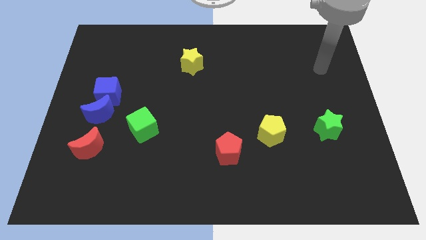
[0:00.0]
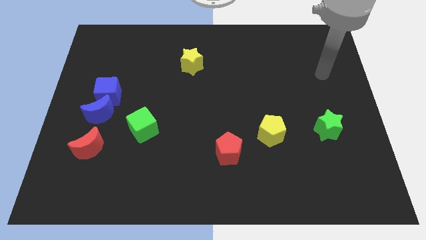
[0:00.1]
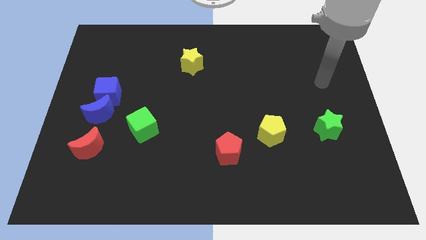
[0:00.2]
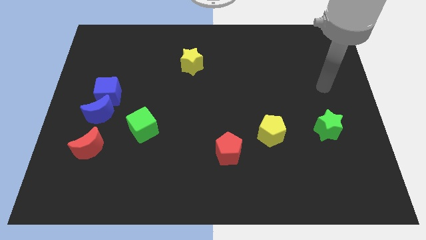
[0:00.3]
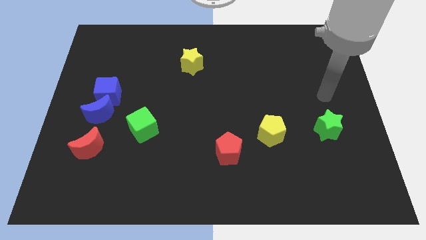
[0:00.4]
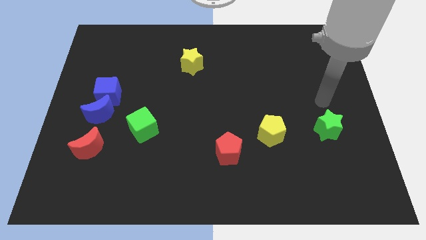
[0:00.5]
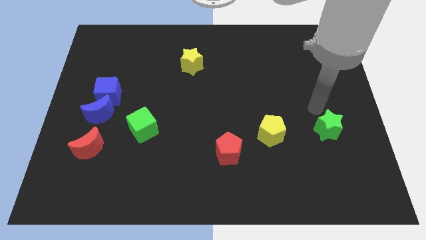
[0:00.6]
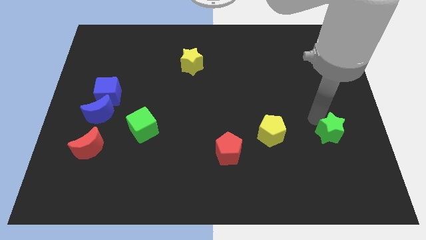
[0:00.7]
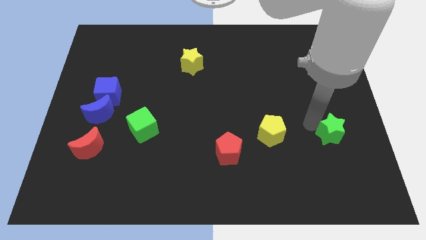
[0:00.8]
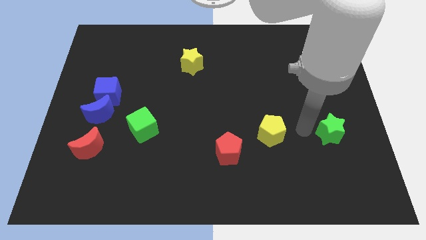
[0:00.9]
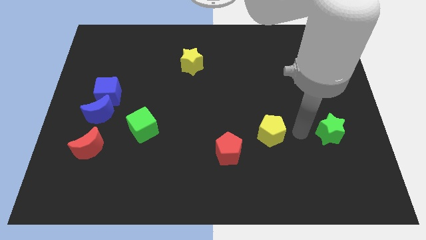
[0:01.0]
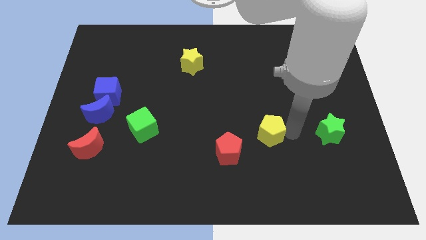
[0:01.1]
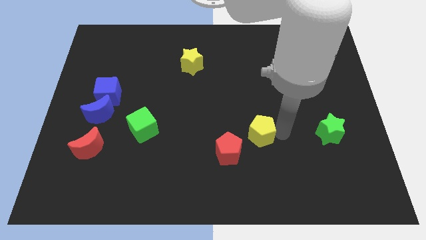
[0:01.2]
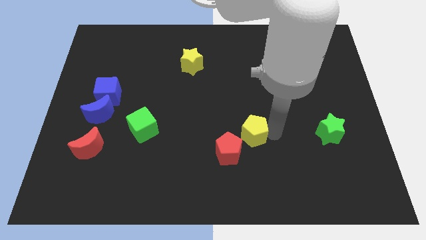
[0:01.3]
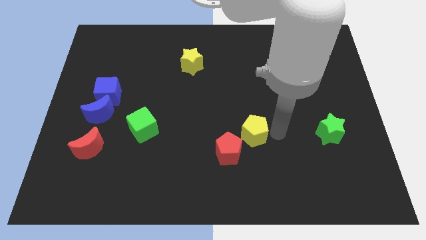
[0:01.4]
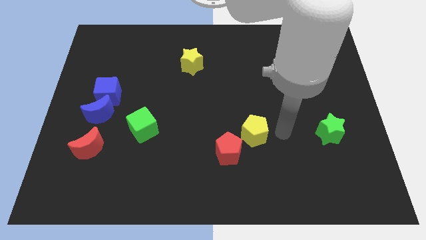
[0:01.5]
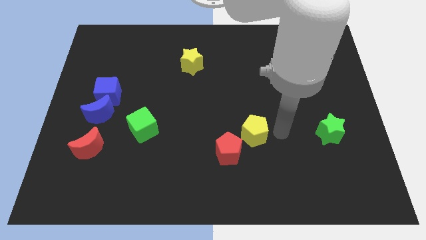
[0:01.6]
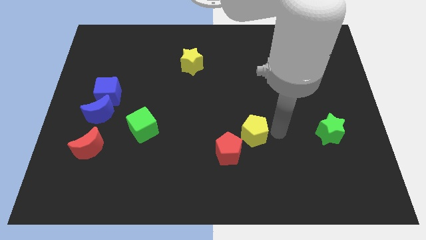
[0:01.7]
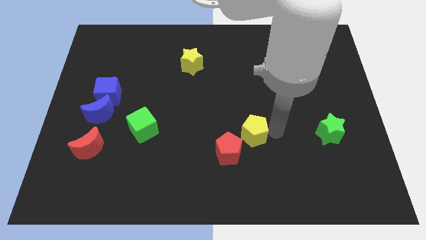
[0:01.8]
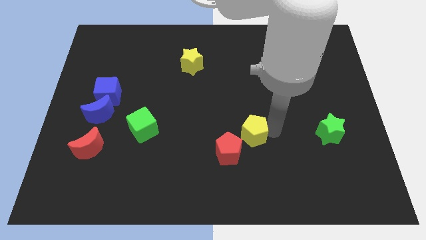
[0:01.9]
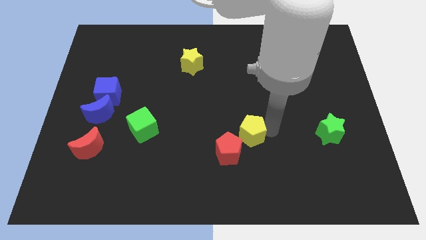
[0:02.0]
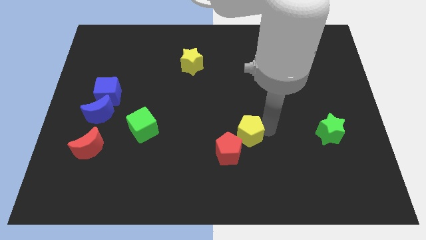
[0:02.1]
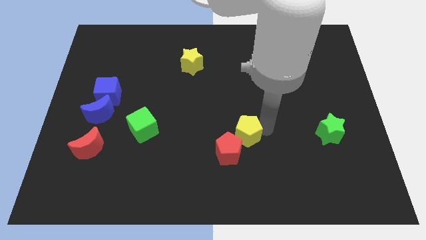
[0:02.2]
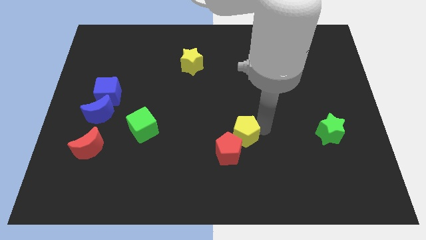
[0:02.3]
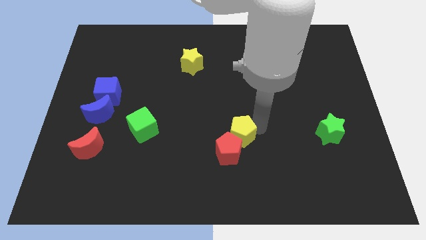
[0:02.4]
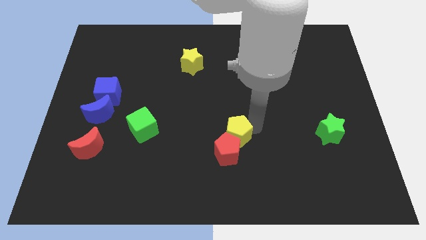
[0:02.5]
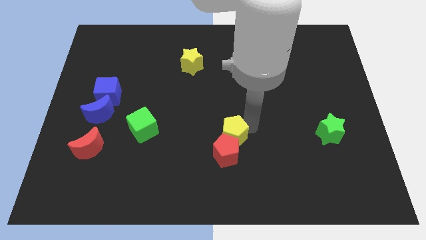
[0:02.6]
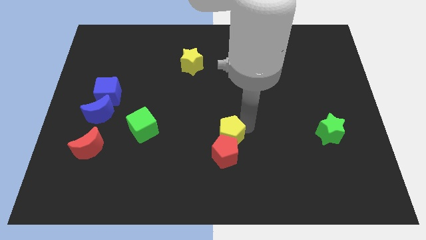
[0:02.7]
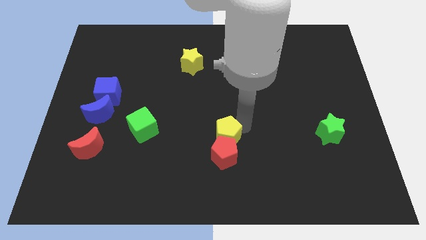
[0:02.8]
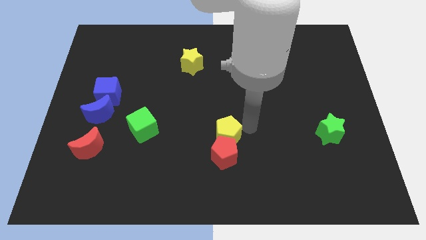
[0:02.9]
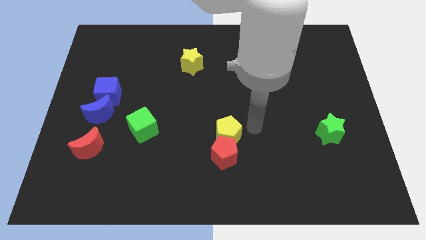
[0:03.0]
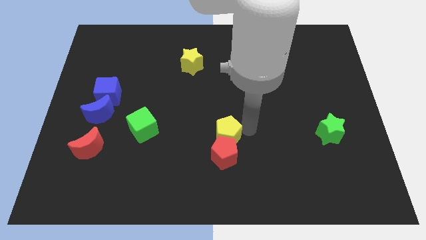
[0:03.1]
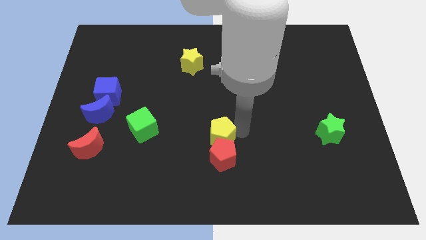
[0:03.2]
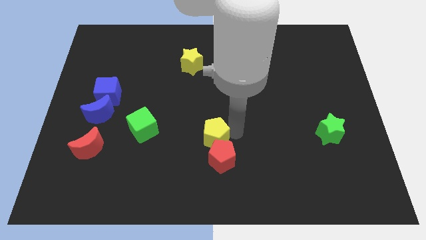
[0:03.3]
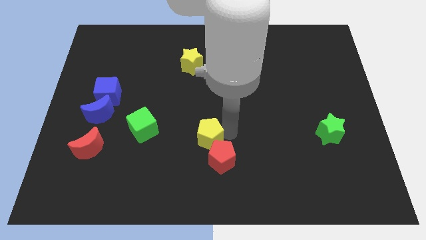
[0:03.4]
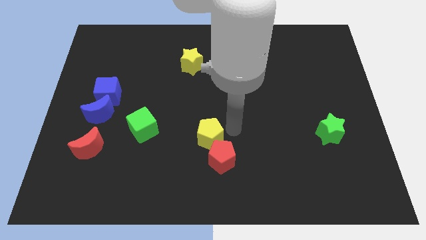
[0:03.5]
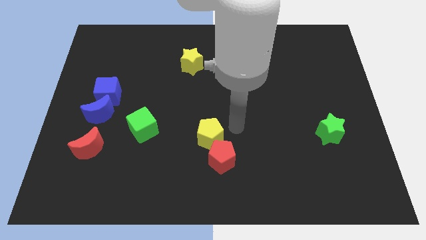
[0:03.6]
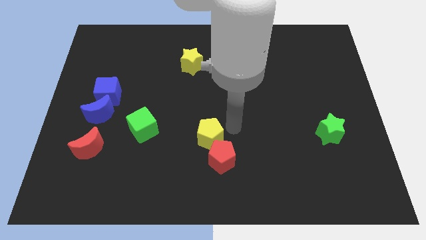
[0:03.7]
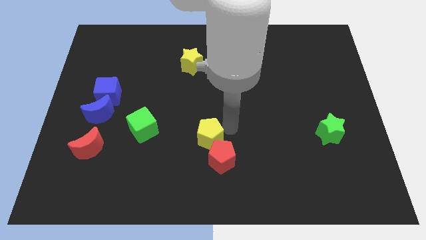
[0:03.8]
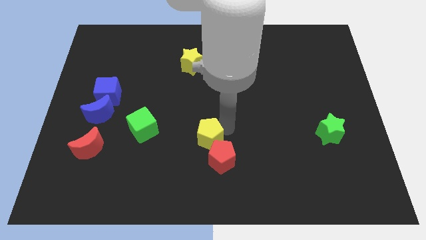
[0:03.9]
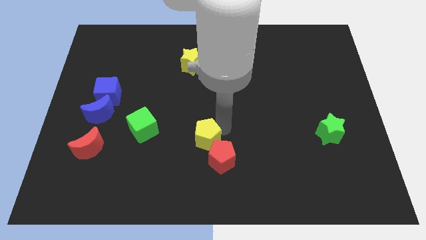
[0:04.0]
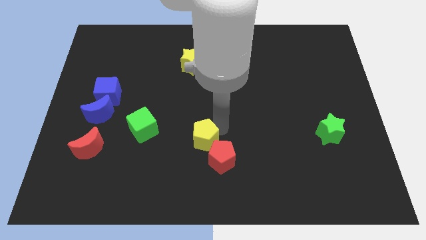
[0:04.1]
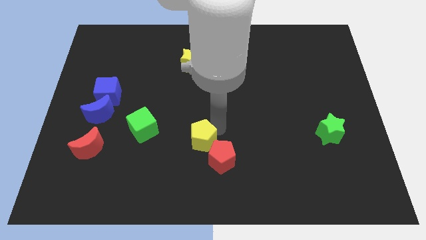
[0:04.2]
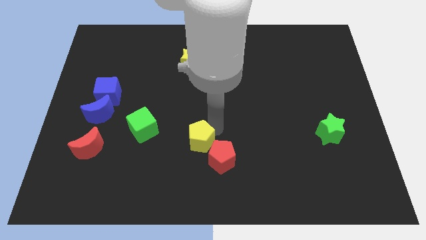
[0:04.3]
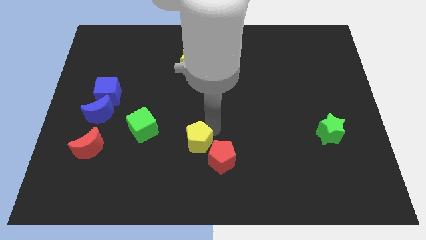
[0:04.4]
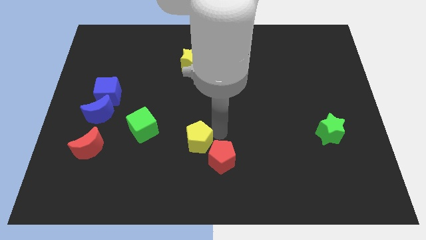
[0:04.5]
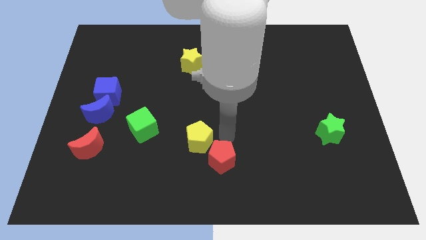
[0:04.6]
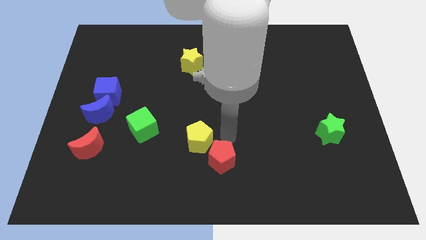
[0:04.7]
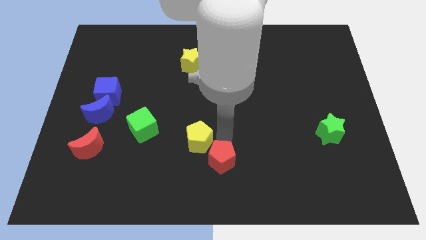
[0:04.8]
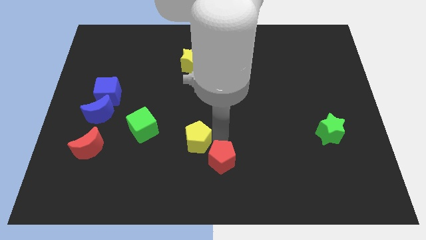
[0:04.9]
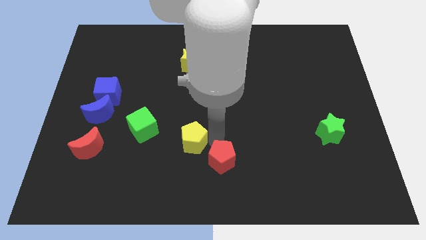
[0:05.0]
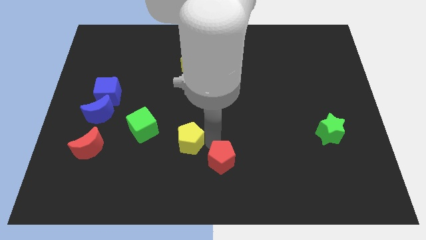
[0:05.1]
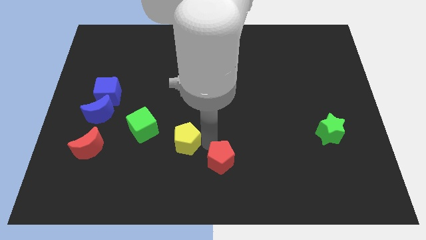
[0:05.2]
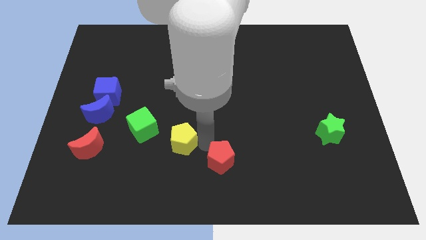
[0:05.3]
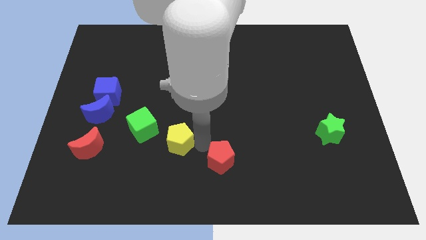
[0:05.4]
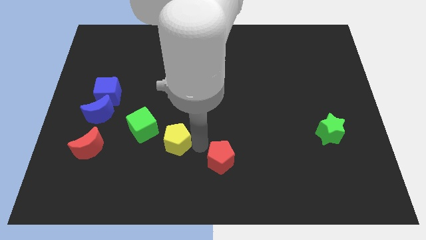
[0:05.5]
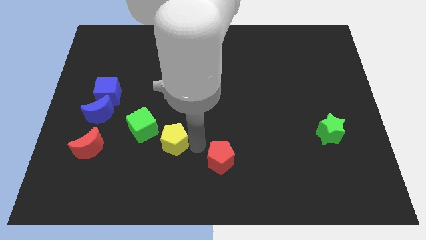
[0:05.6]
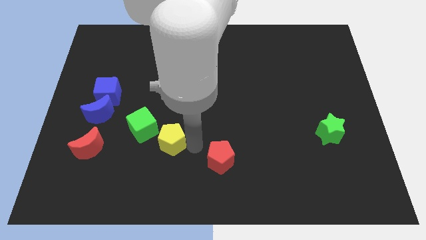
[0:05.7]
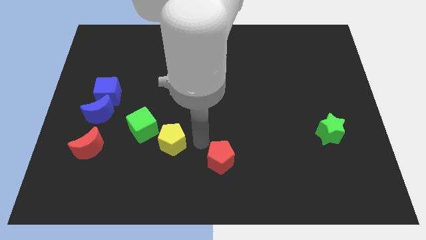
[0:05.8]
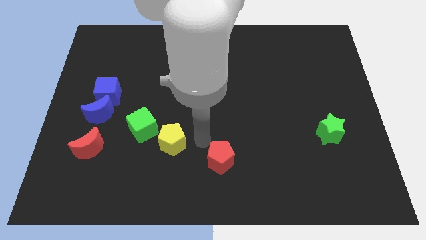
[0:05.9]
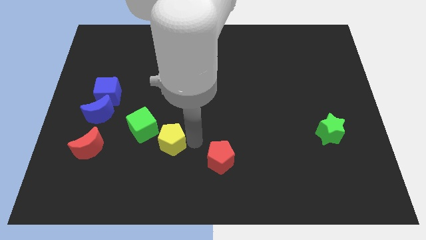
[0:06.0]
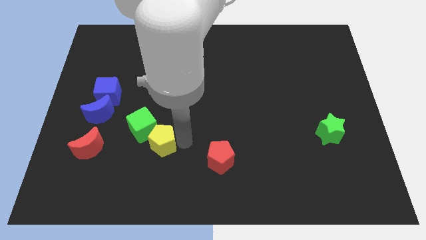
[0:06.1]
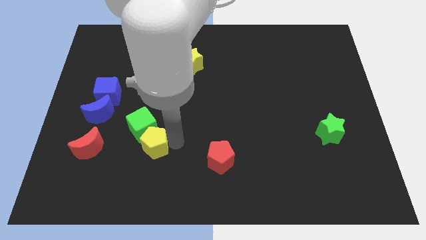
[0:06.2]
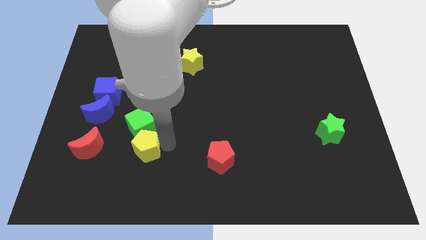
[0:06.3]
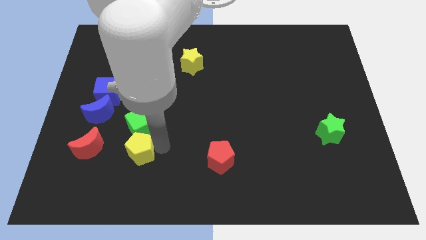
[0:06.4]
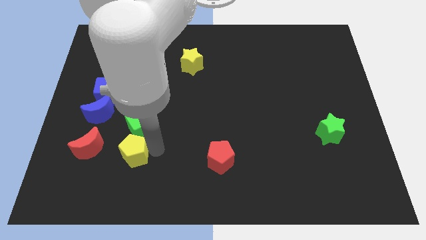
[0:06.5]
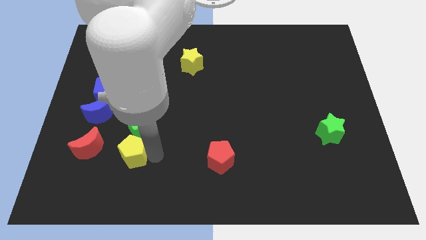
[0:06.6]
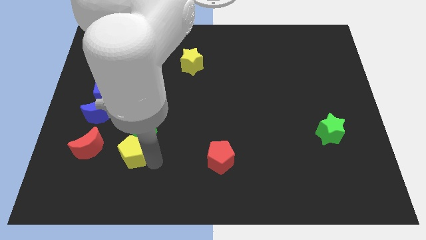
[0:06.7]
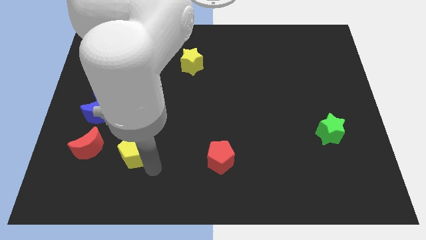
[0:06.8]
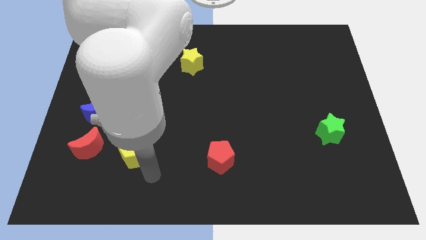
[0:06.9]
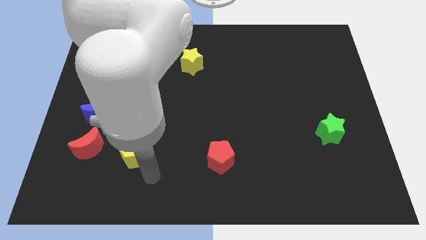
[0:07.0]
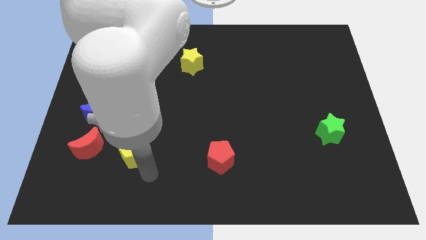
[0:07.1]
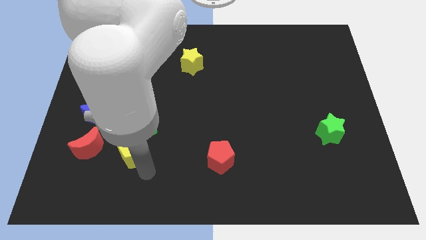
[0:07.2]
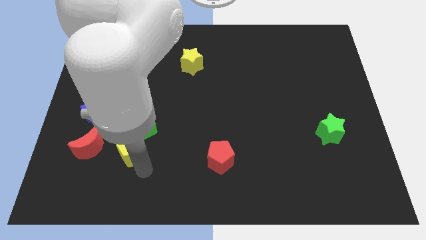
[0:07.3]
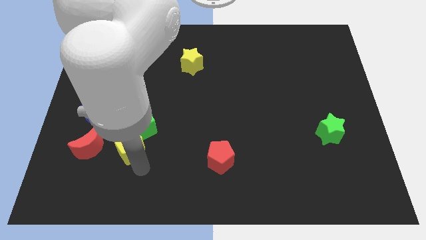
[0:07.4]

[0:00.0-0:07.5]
slide the yellow pentagon to the bottom right of the blue moon
